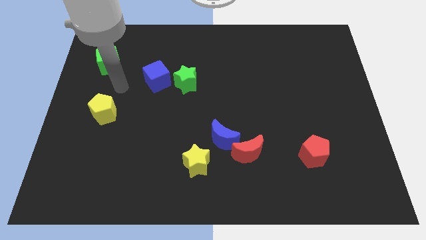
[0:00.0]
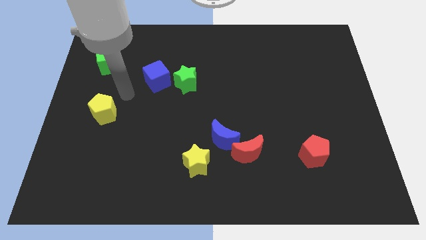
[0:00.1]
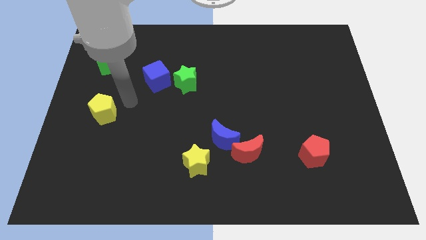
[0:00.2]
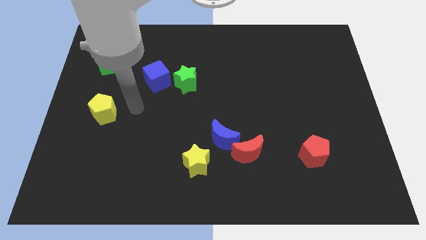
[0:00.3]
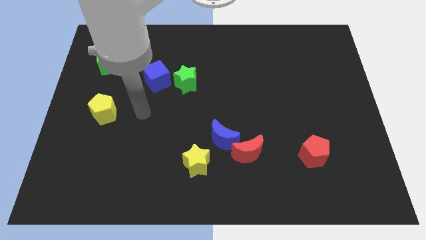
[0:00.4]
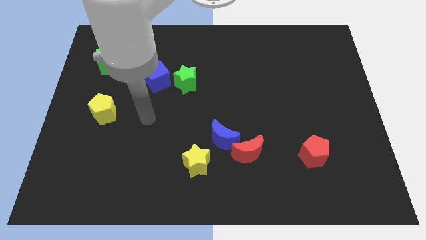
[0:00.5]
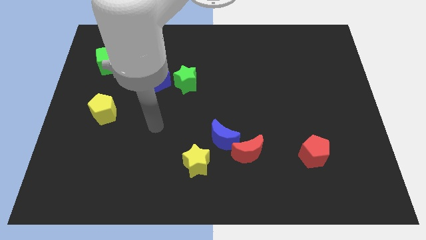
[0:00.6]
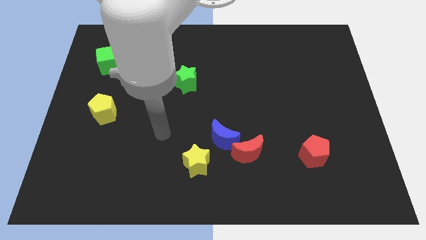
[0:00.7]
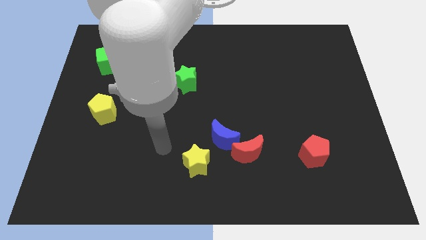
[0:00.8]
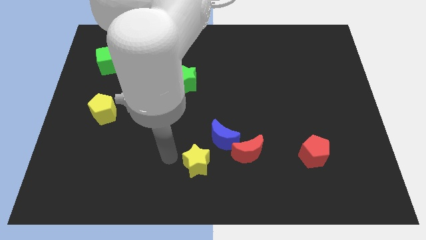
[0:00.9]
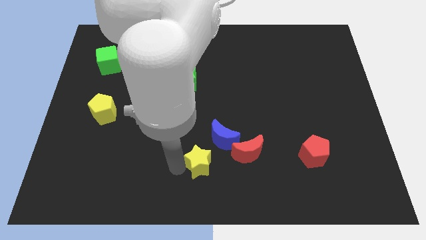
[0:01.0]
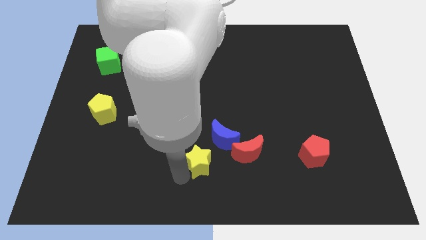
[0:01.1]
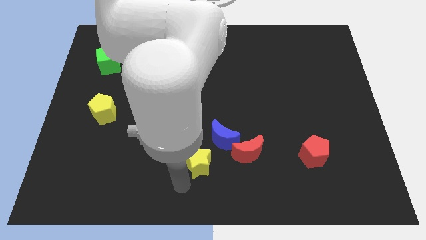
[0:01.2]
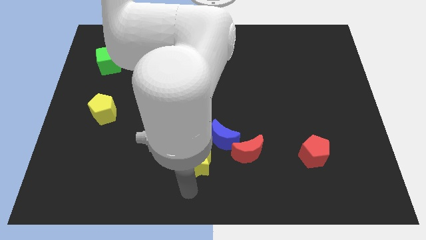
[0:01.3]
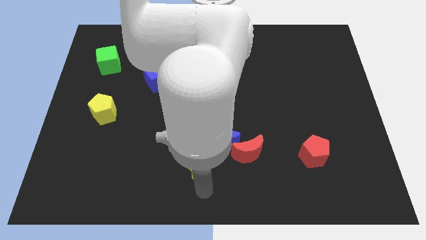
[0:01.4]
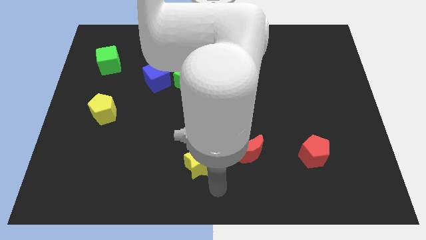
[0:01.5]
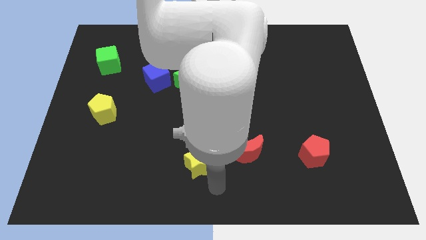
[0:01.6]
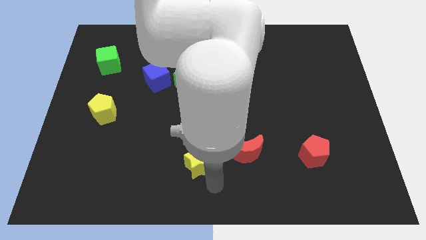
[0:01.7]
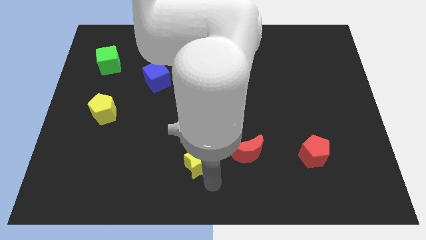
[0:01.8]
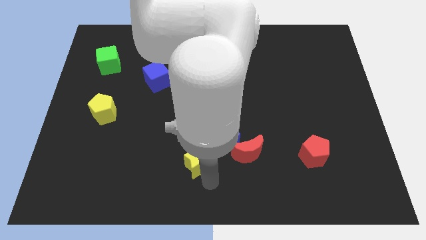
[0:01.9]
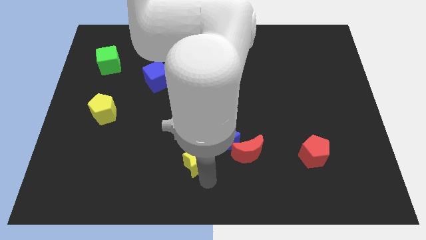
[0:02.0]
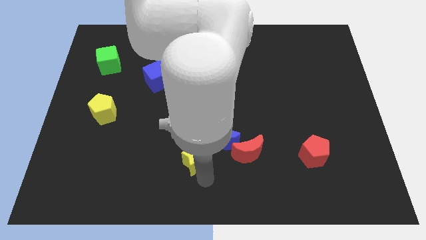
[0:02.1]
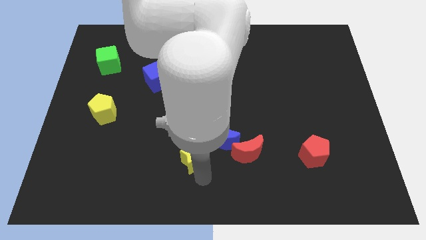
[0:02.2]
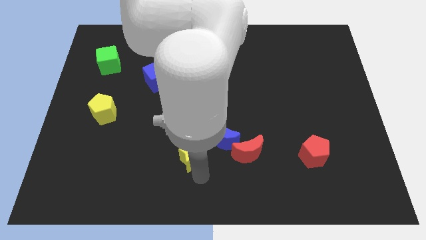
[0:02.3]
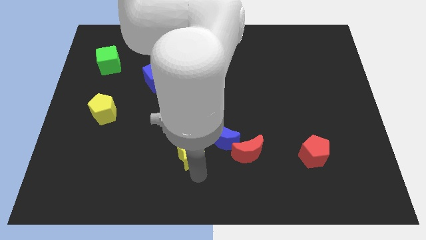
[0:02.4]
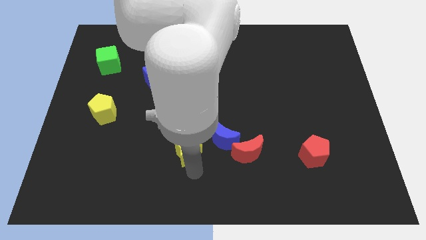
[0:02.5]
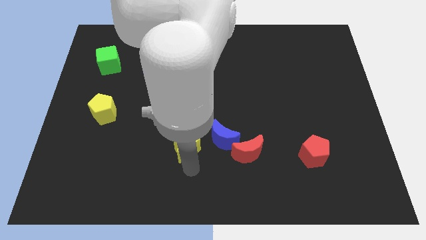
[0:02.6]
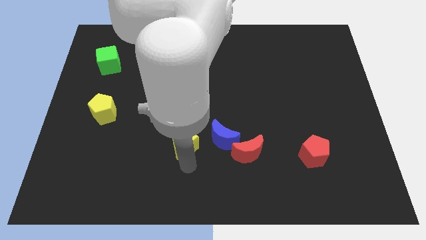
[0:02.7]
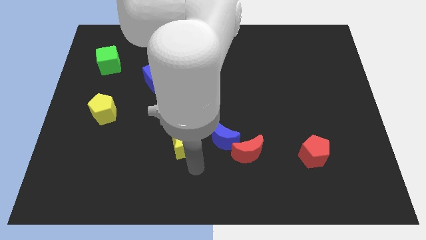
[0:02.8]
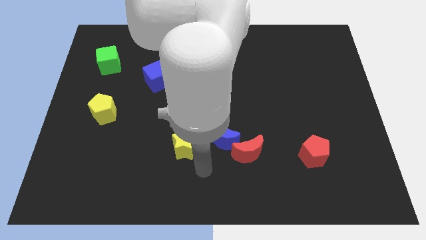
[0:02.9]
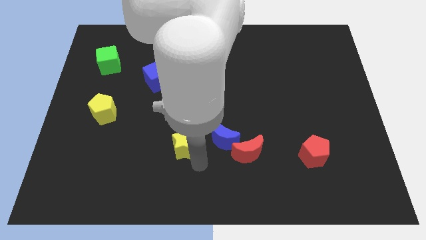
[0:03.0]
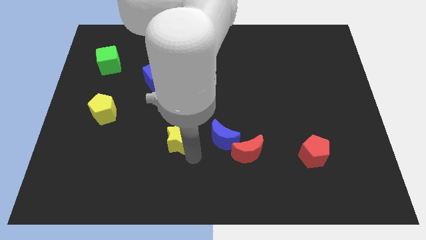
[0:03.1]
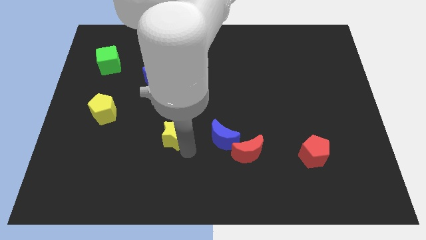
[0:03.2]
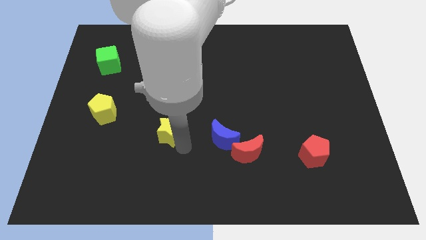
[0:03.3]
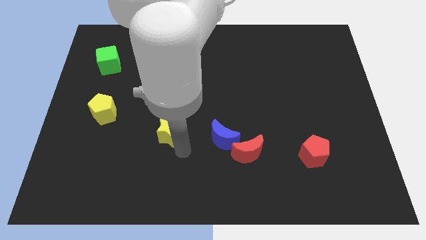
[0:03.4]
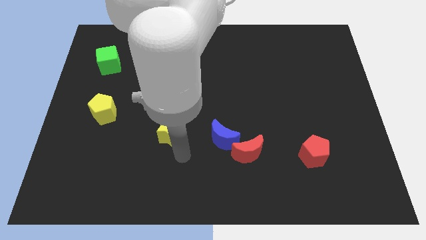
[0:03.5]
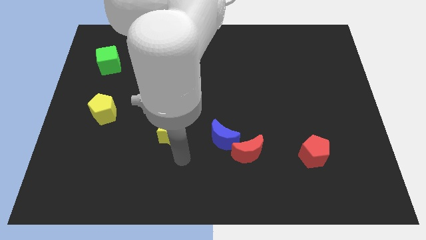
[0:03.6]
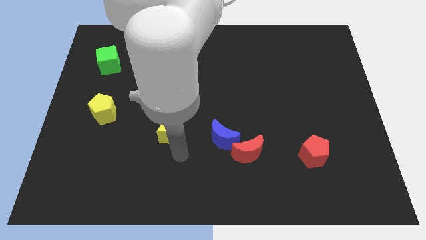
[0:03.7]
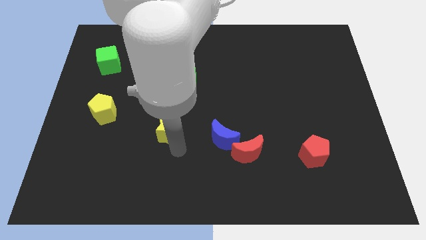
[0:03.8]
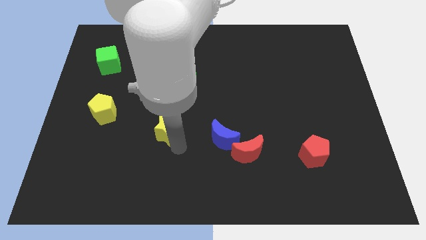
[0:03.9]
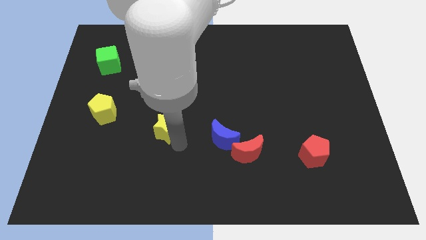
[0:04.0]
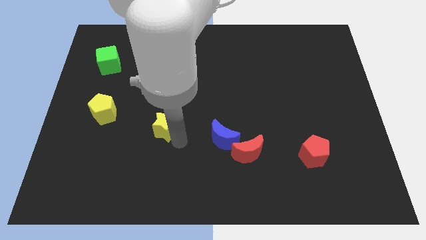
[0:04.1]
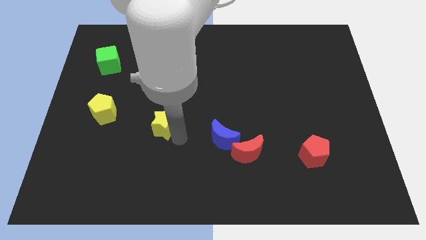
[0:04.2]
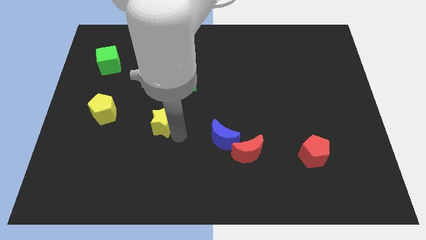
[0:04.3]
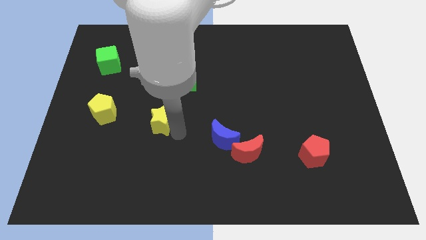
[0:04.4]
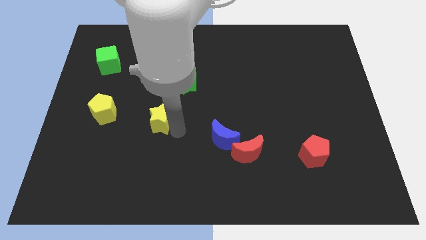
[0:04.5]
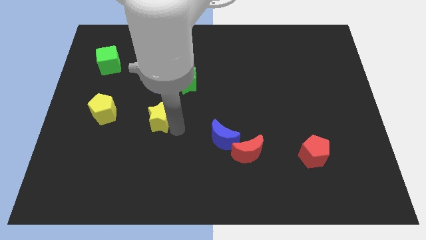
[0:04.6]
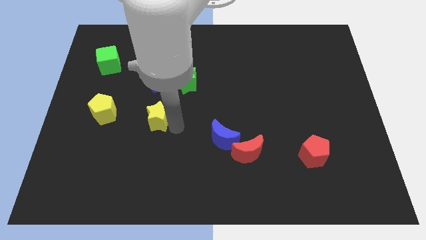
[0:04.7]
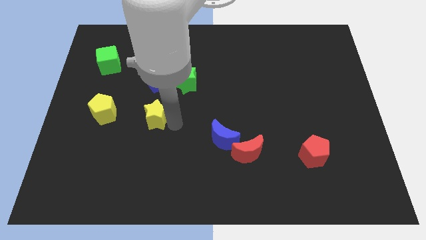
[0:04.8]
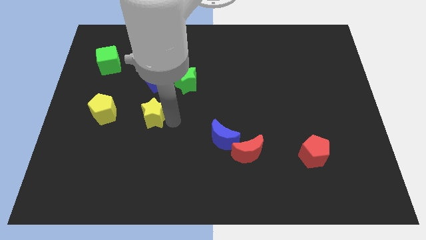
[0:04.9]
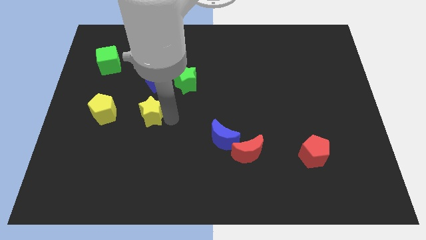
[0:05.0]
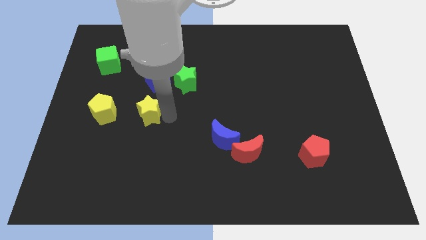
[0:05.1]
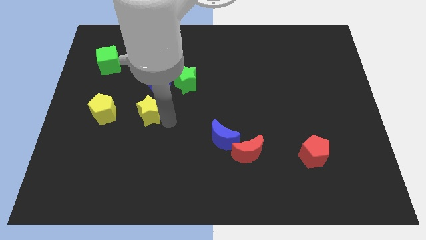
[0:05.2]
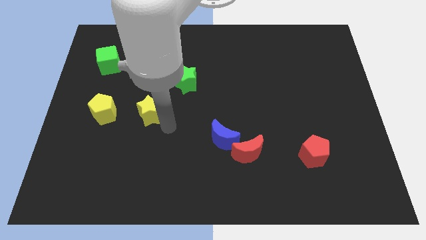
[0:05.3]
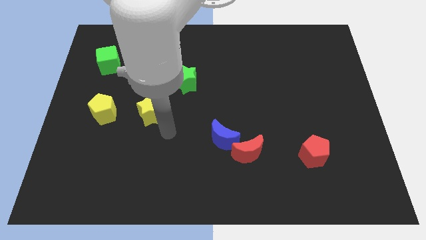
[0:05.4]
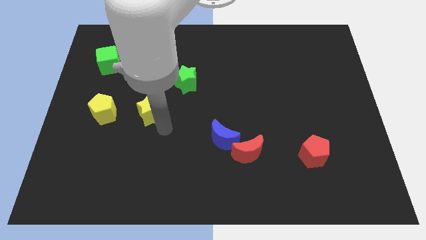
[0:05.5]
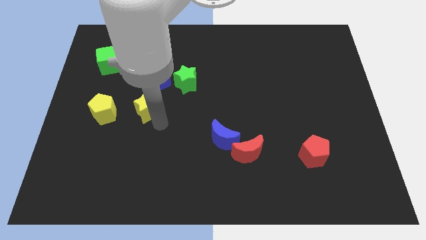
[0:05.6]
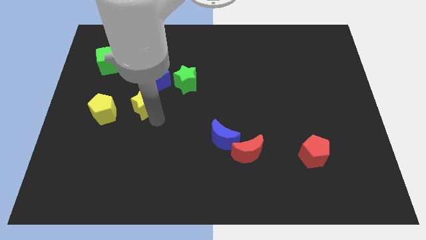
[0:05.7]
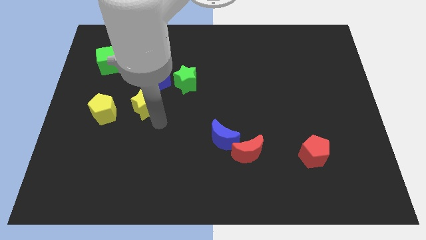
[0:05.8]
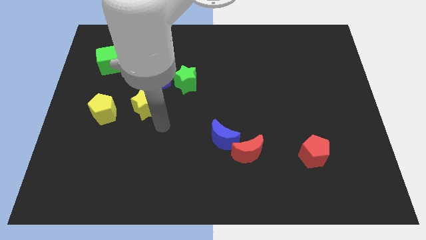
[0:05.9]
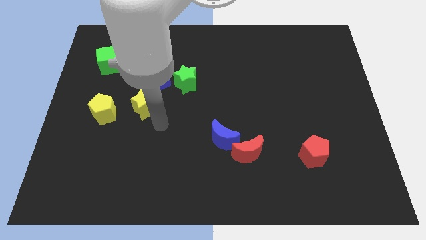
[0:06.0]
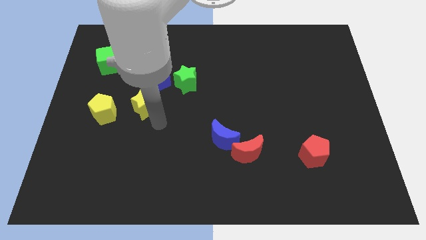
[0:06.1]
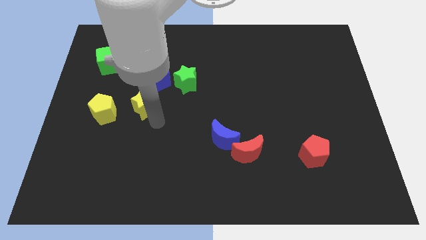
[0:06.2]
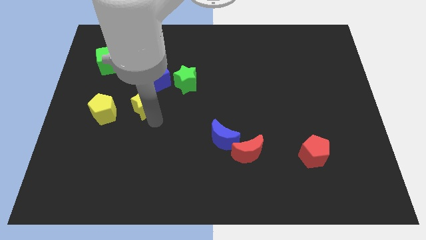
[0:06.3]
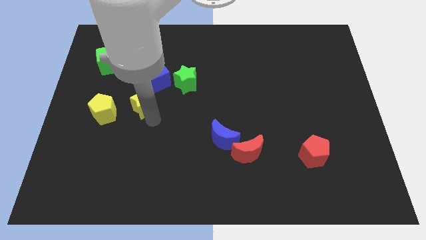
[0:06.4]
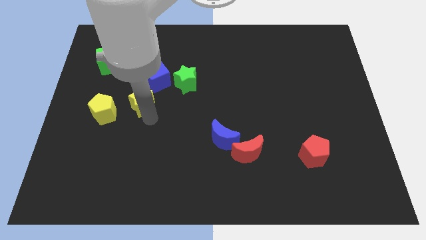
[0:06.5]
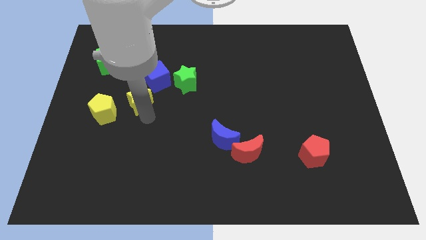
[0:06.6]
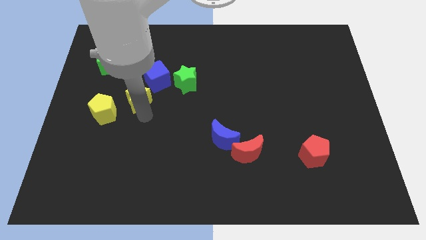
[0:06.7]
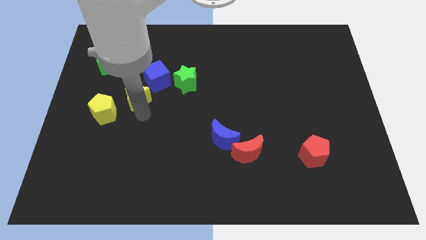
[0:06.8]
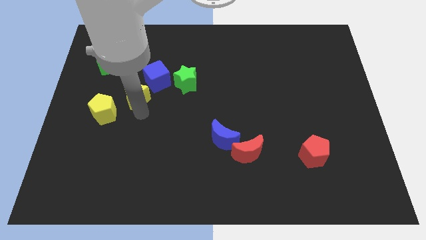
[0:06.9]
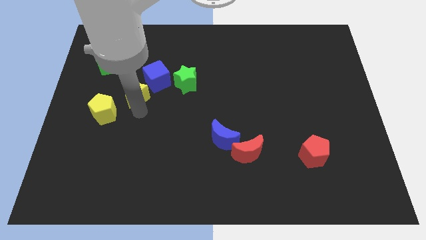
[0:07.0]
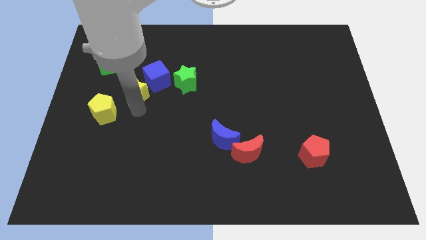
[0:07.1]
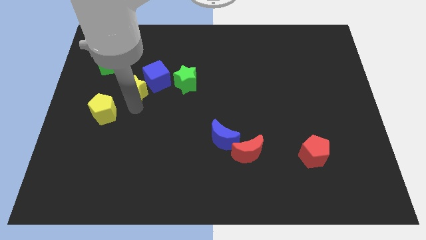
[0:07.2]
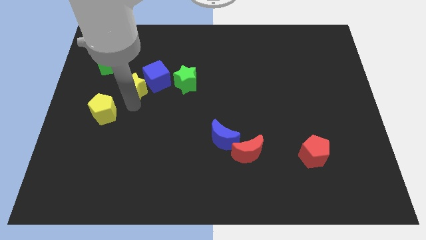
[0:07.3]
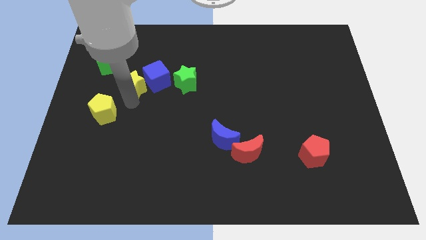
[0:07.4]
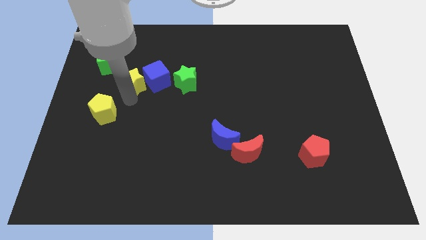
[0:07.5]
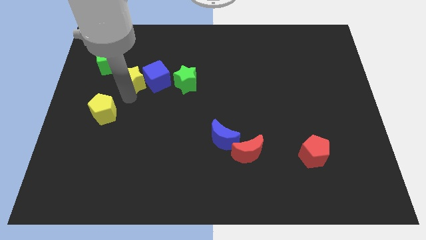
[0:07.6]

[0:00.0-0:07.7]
push the yellow star to the top left side of the blue cube
